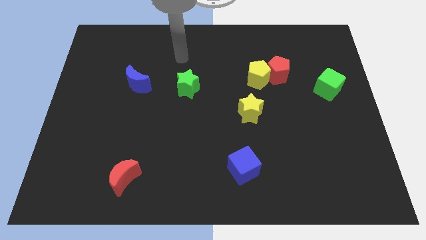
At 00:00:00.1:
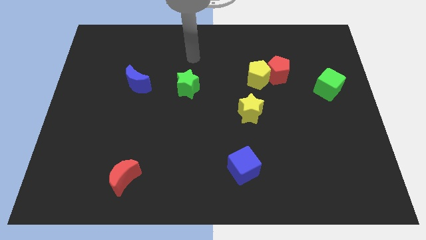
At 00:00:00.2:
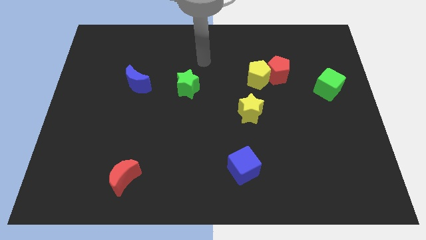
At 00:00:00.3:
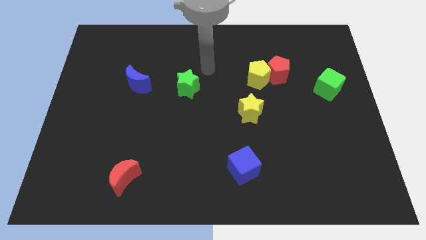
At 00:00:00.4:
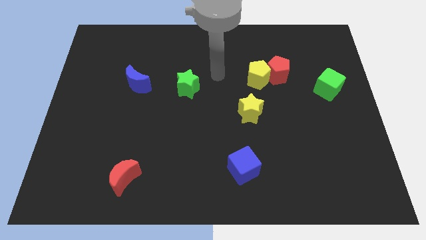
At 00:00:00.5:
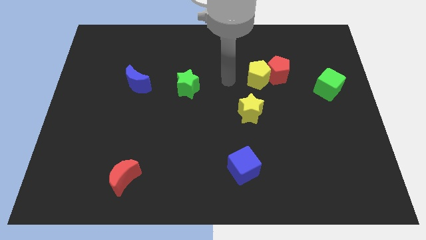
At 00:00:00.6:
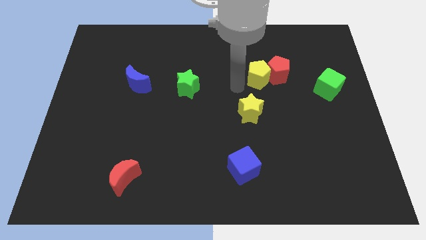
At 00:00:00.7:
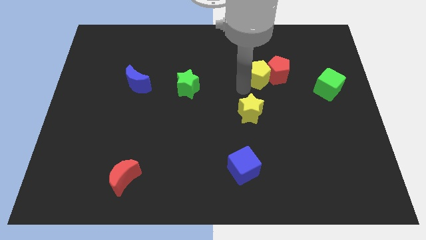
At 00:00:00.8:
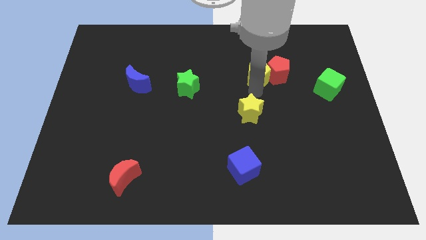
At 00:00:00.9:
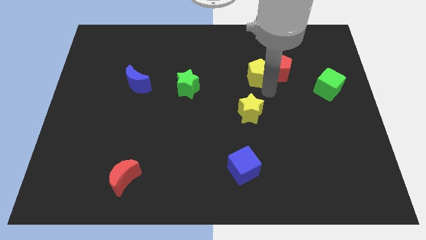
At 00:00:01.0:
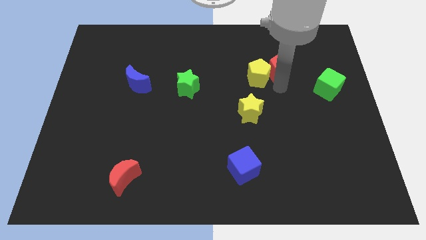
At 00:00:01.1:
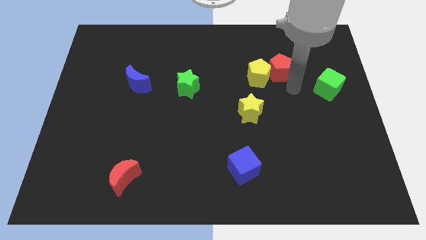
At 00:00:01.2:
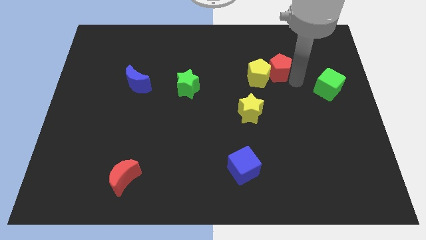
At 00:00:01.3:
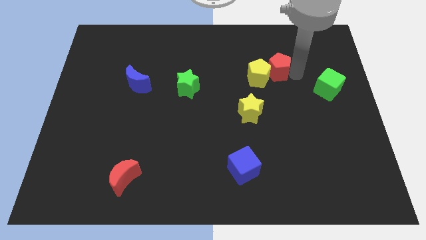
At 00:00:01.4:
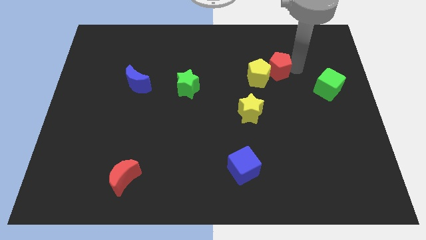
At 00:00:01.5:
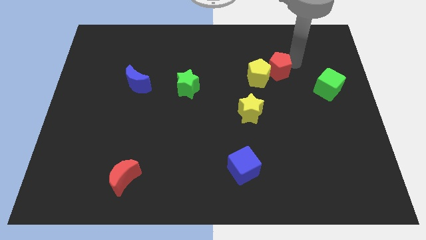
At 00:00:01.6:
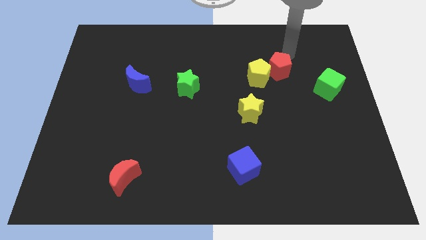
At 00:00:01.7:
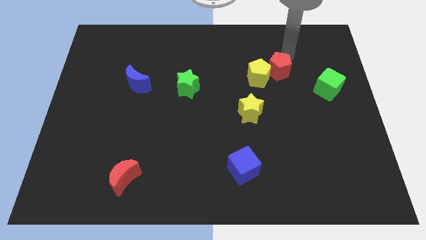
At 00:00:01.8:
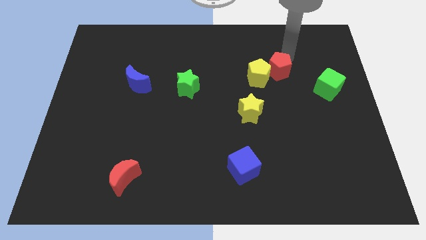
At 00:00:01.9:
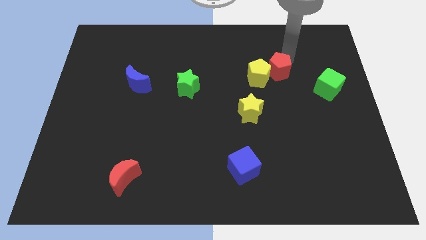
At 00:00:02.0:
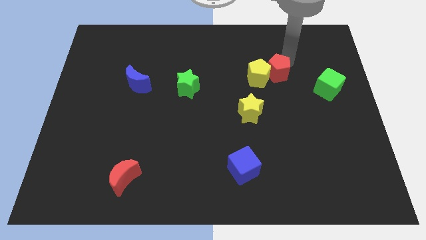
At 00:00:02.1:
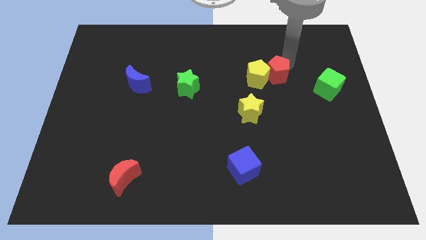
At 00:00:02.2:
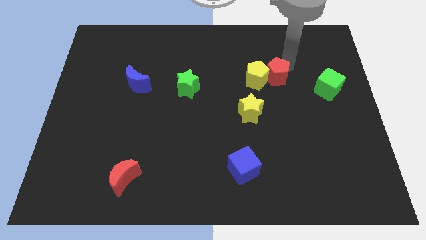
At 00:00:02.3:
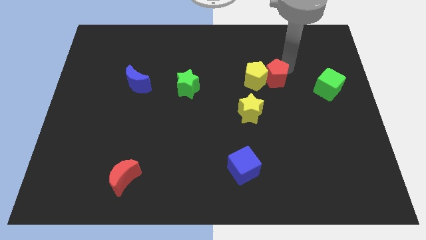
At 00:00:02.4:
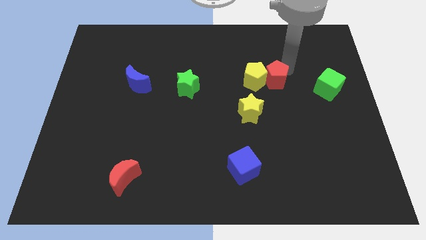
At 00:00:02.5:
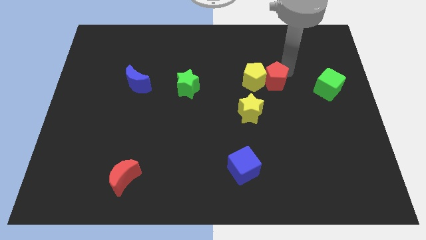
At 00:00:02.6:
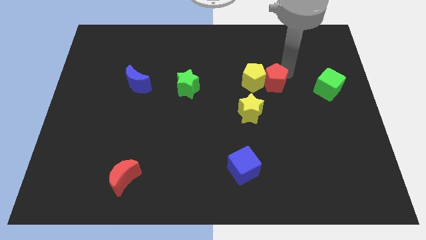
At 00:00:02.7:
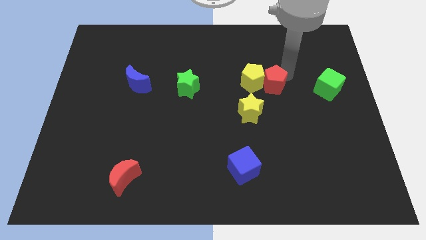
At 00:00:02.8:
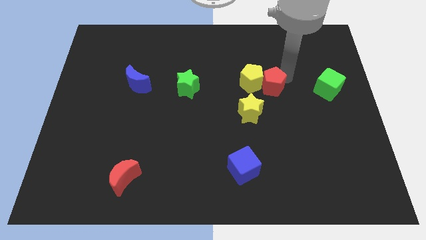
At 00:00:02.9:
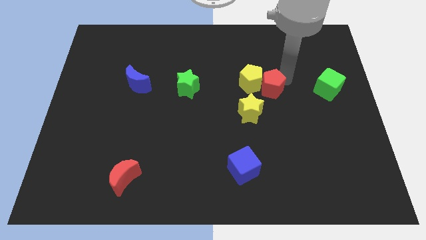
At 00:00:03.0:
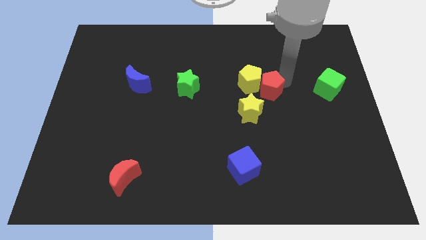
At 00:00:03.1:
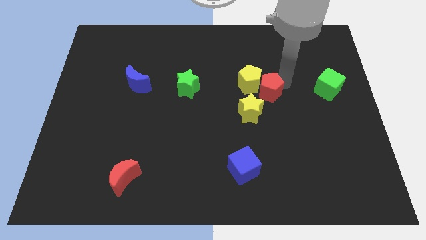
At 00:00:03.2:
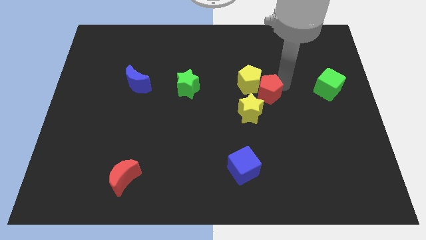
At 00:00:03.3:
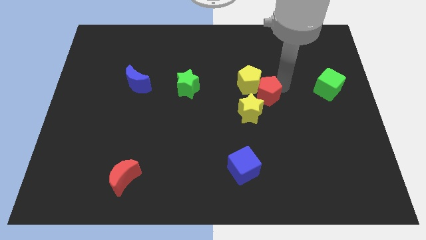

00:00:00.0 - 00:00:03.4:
move the red pentagon slightly downwards and left diagonally

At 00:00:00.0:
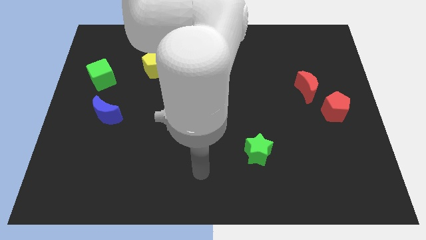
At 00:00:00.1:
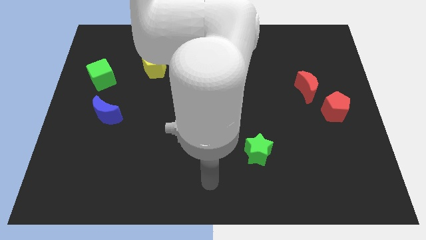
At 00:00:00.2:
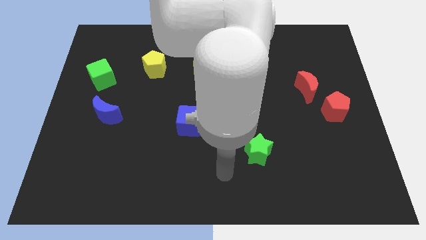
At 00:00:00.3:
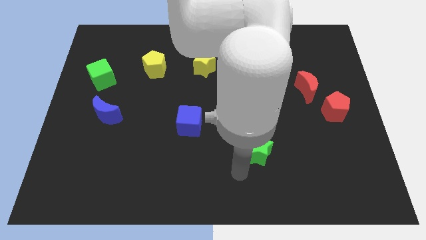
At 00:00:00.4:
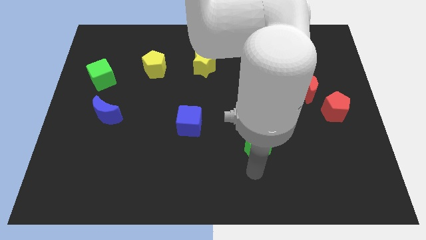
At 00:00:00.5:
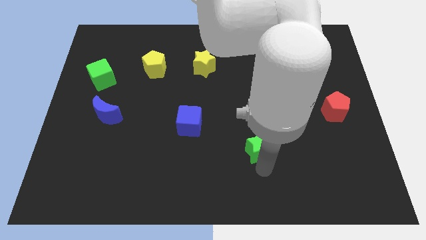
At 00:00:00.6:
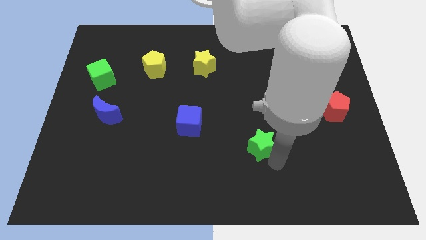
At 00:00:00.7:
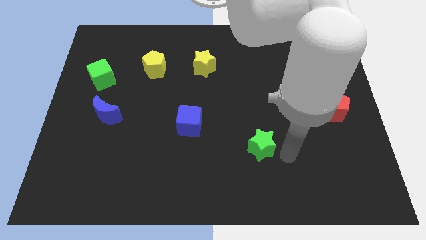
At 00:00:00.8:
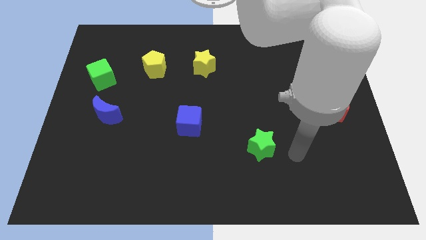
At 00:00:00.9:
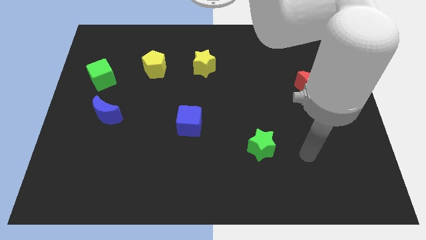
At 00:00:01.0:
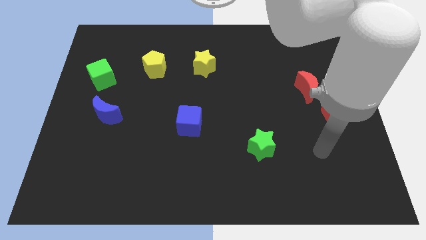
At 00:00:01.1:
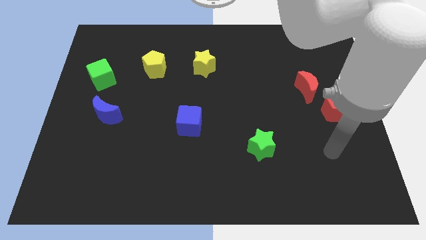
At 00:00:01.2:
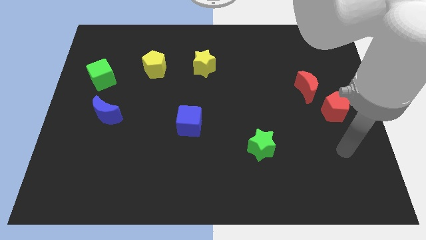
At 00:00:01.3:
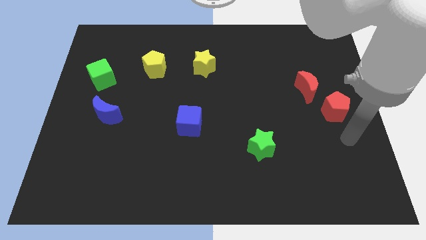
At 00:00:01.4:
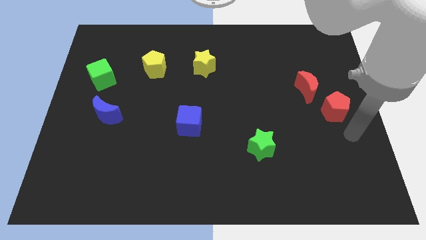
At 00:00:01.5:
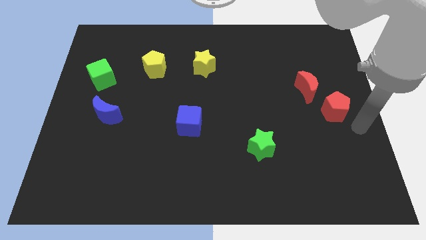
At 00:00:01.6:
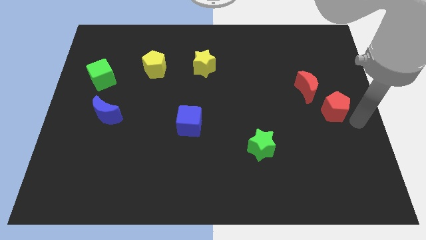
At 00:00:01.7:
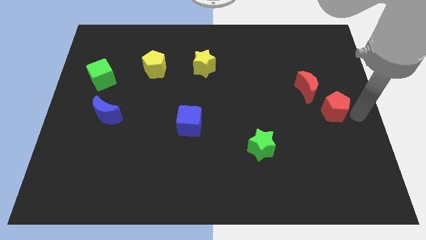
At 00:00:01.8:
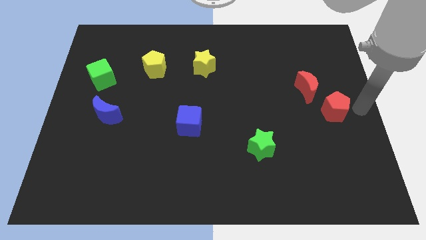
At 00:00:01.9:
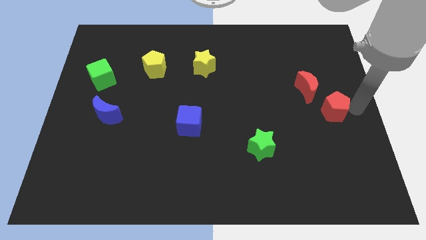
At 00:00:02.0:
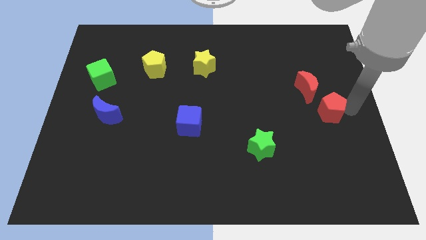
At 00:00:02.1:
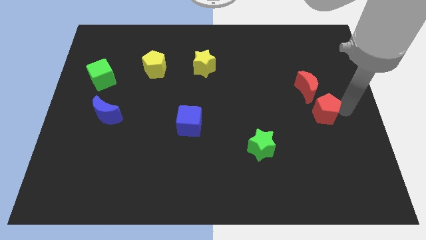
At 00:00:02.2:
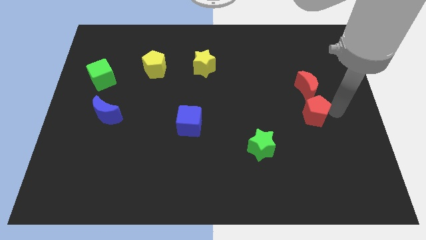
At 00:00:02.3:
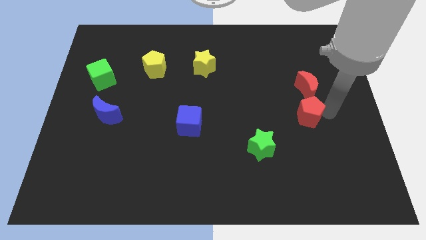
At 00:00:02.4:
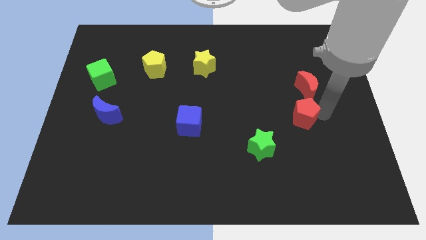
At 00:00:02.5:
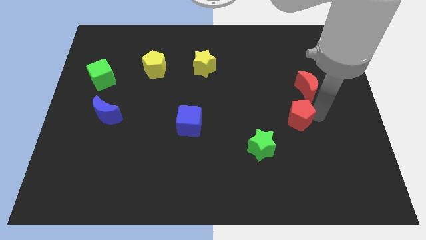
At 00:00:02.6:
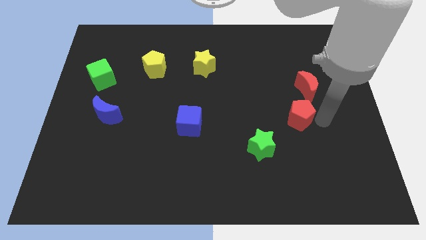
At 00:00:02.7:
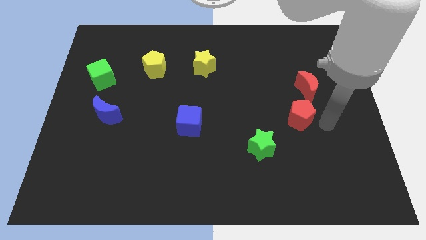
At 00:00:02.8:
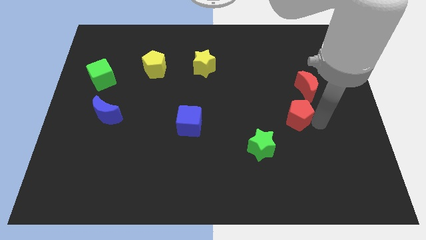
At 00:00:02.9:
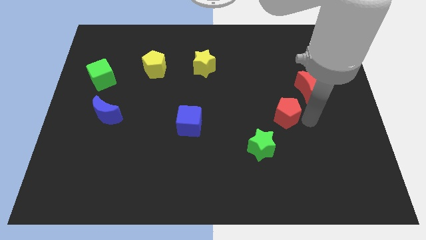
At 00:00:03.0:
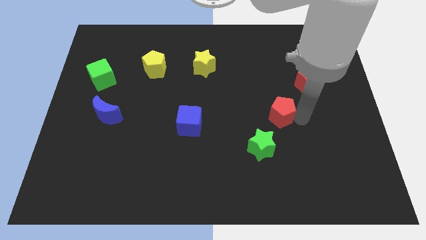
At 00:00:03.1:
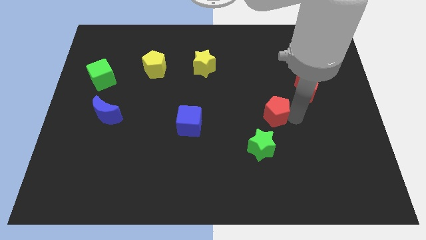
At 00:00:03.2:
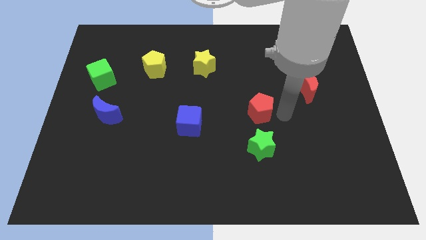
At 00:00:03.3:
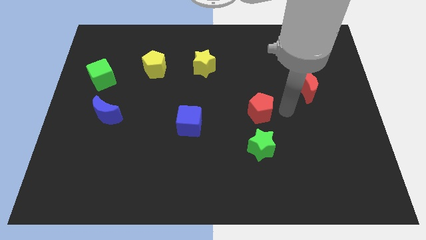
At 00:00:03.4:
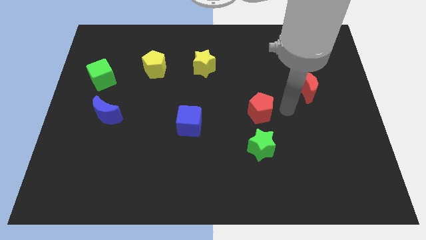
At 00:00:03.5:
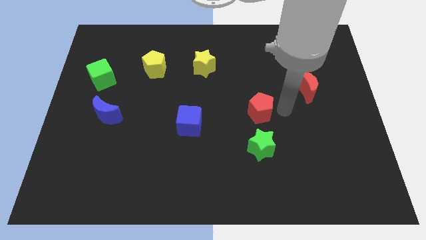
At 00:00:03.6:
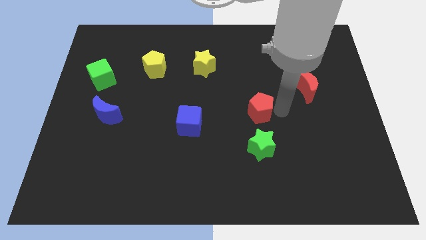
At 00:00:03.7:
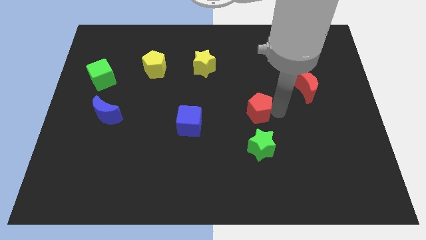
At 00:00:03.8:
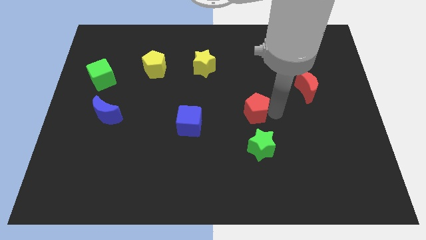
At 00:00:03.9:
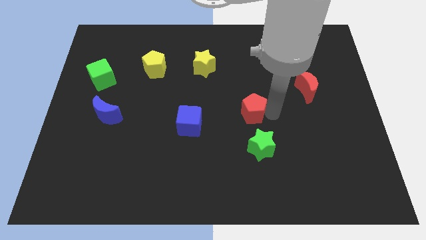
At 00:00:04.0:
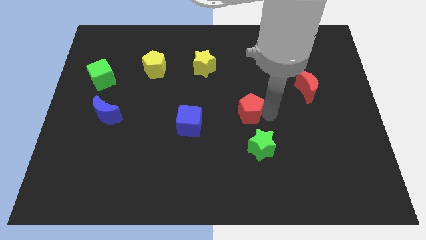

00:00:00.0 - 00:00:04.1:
push the red pentagon to the left

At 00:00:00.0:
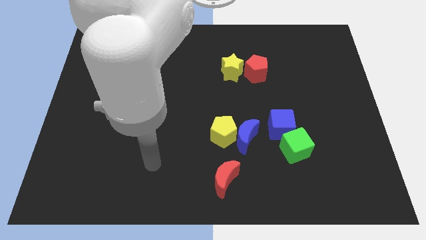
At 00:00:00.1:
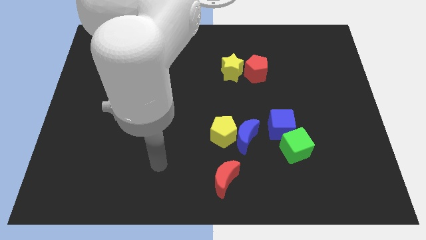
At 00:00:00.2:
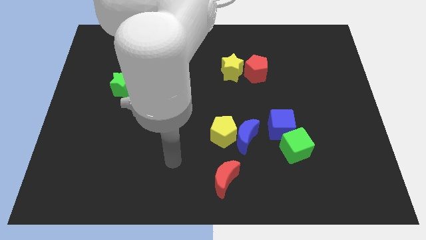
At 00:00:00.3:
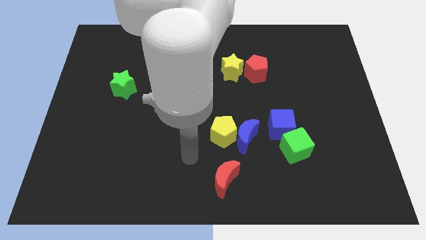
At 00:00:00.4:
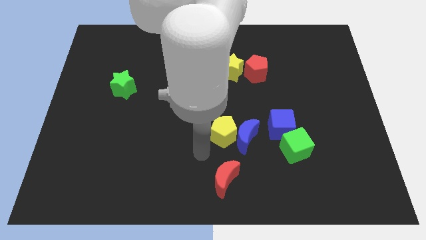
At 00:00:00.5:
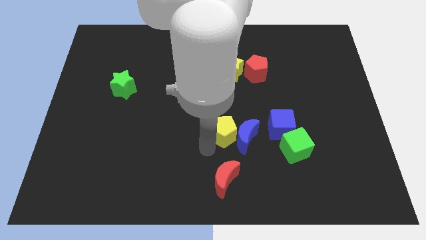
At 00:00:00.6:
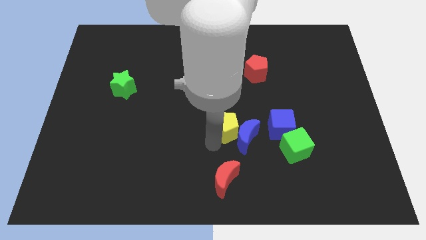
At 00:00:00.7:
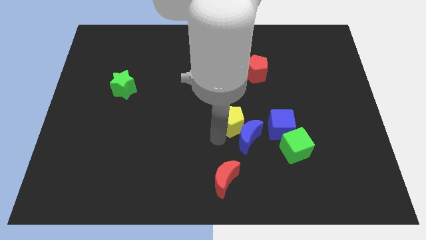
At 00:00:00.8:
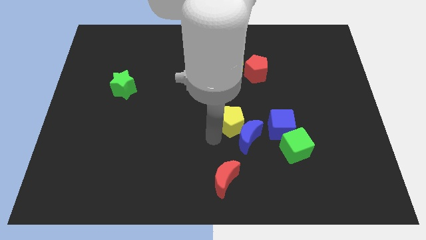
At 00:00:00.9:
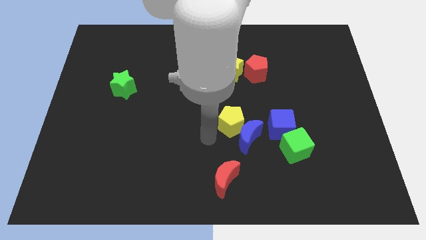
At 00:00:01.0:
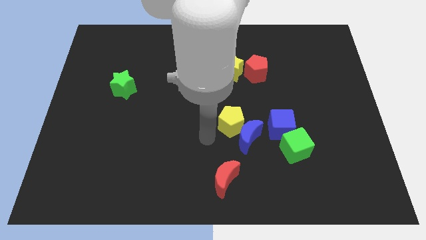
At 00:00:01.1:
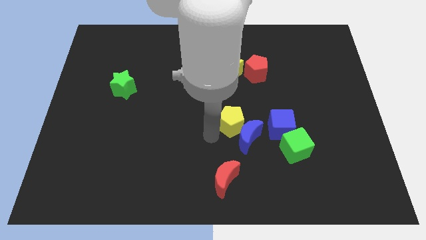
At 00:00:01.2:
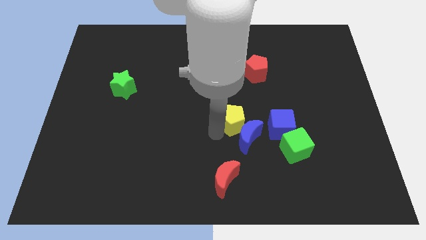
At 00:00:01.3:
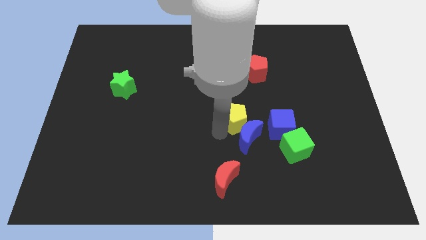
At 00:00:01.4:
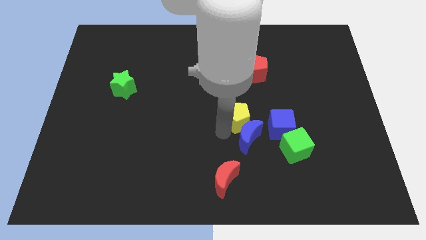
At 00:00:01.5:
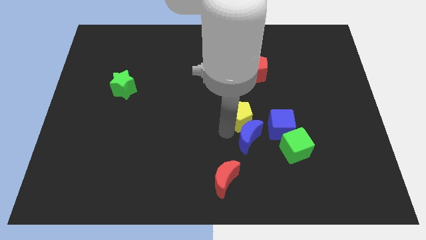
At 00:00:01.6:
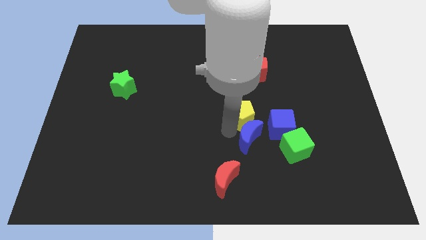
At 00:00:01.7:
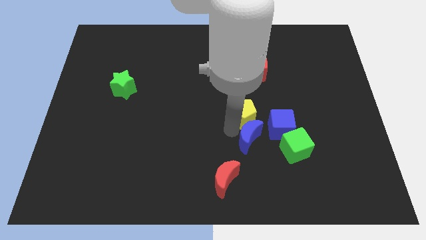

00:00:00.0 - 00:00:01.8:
move the yellow pentagon up and then right a little
